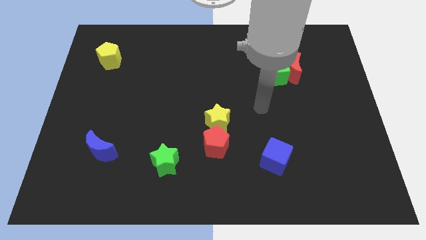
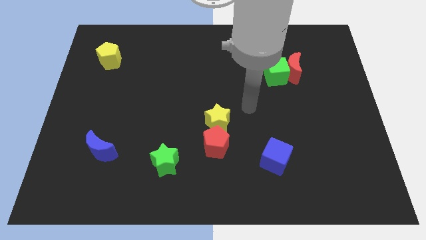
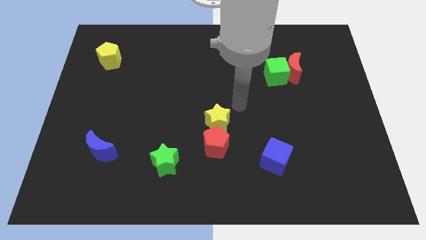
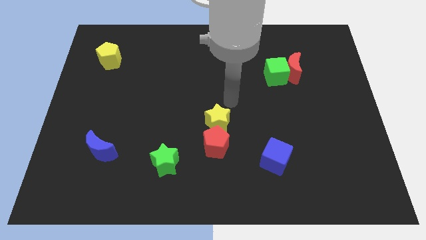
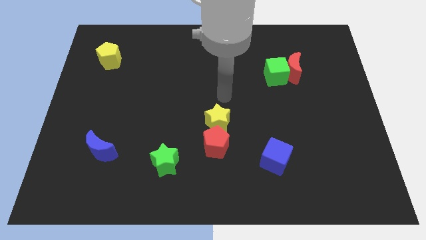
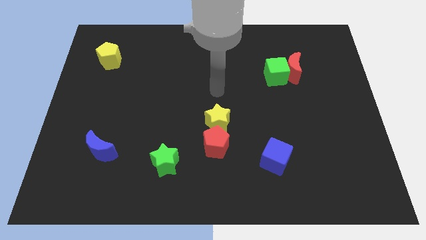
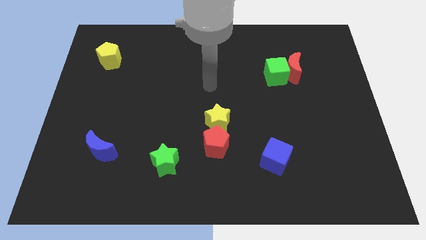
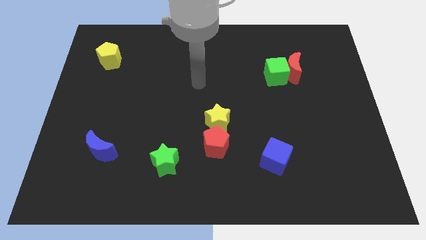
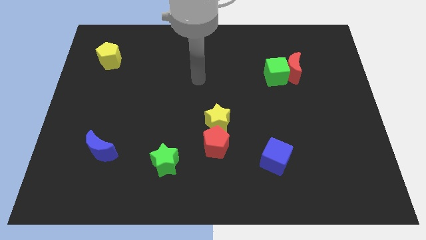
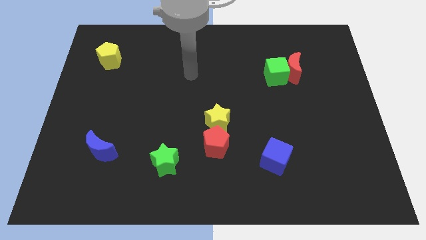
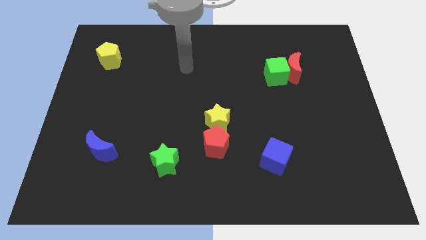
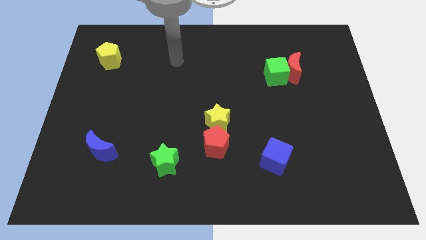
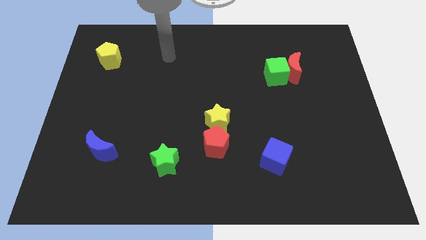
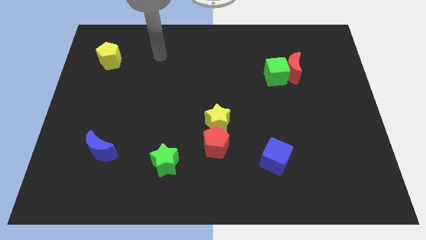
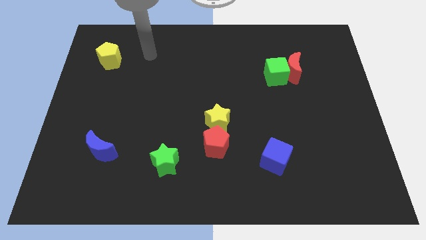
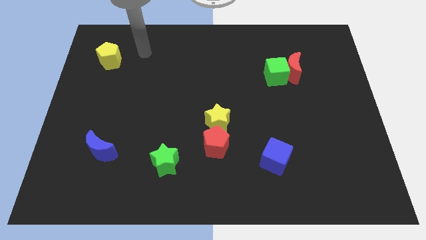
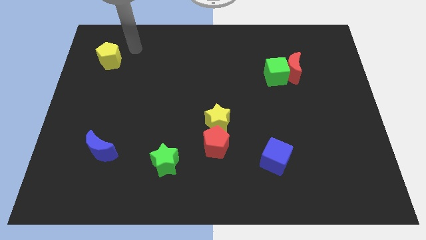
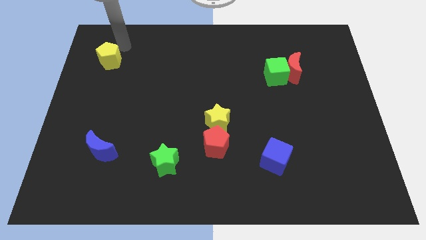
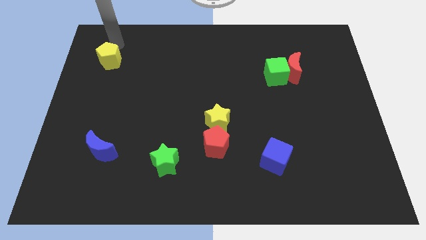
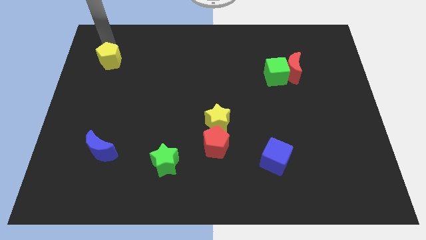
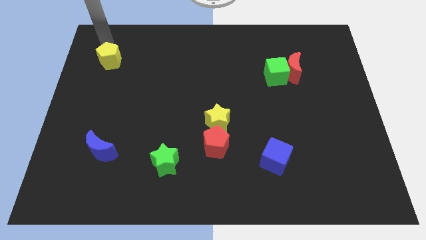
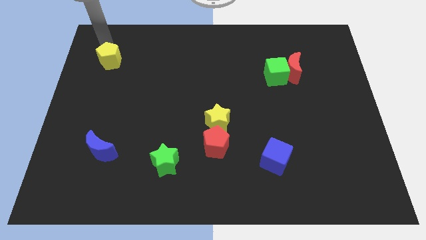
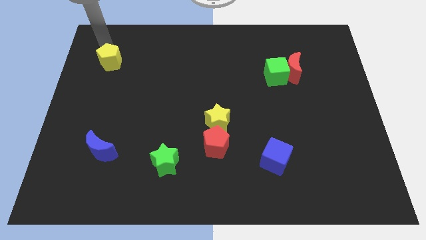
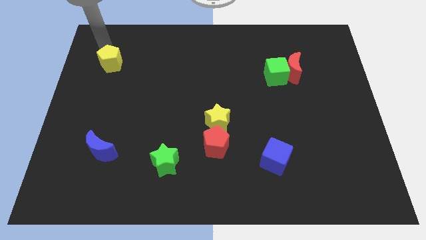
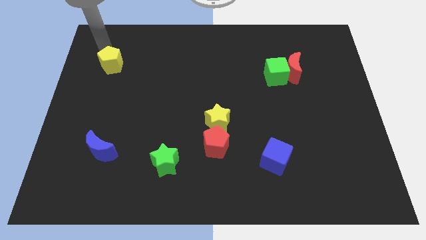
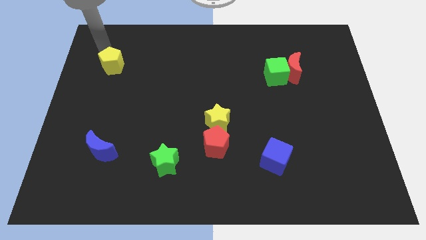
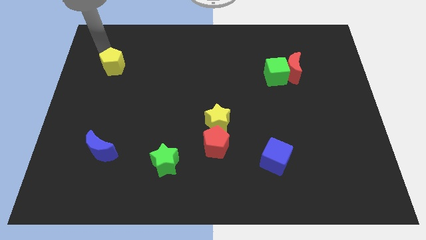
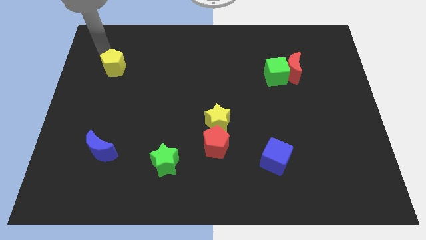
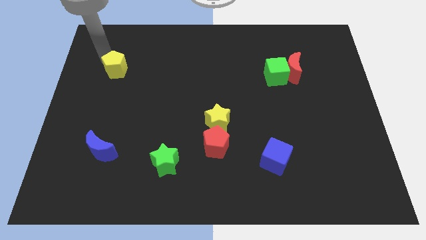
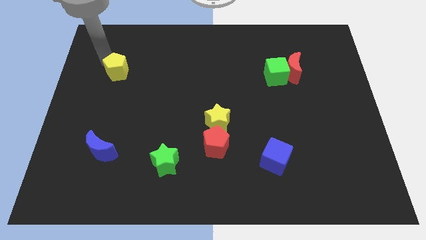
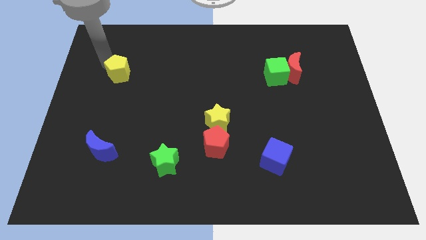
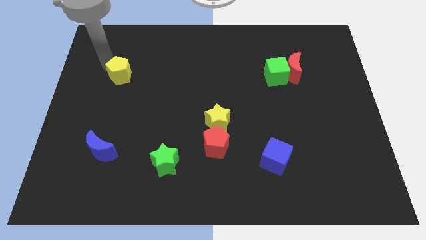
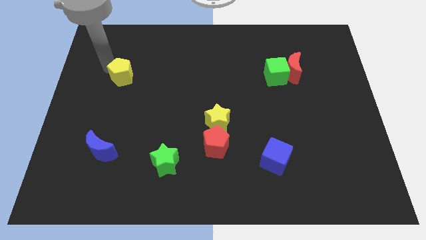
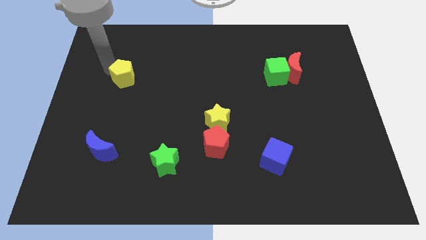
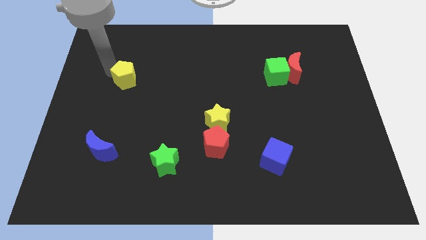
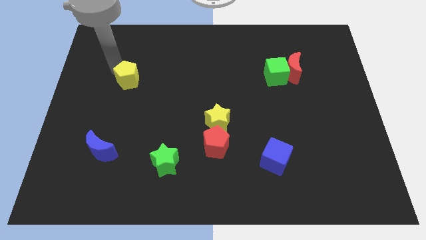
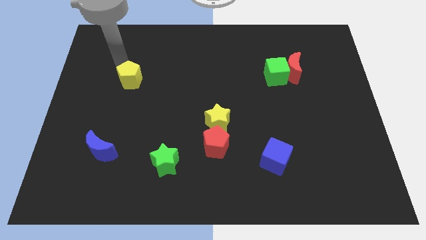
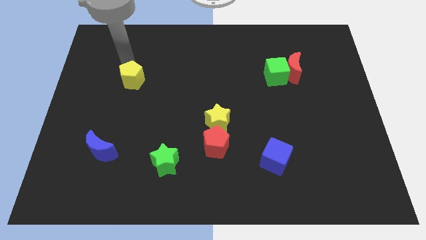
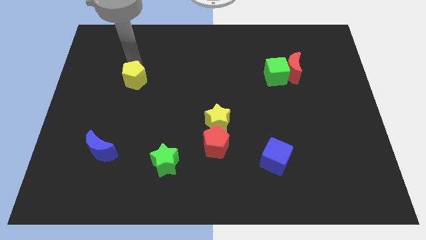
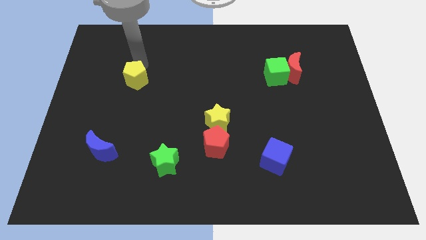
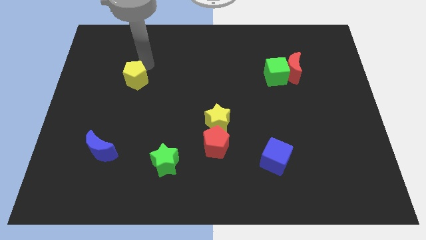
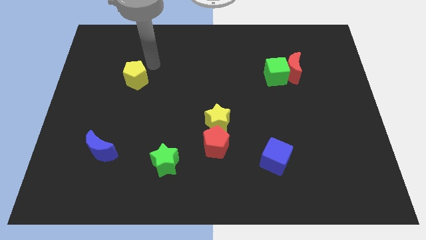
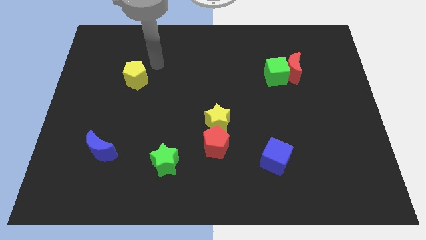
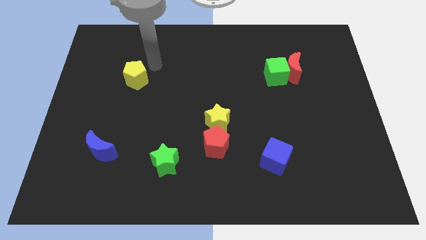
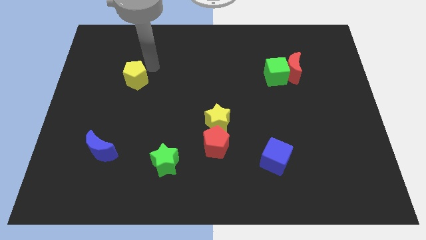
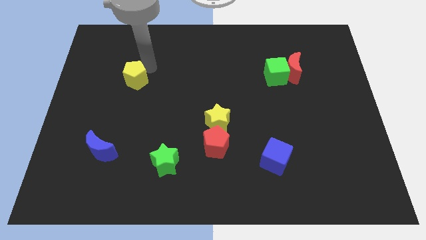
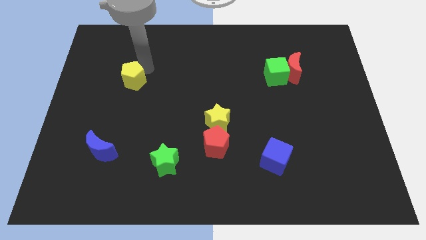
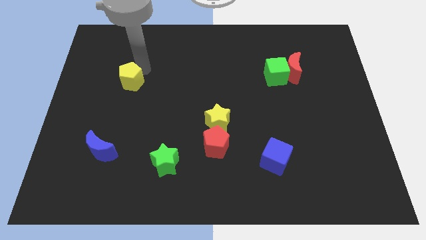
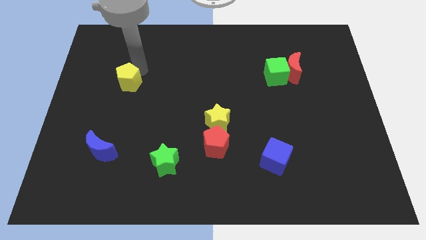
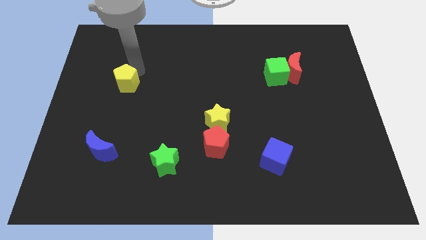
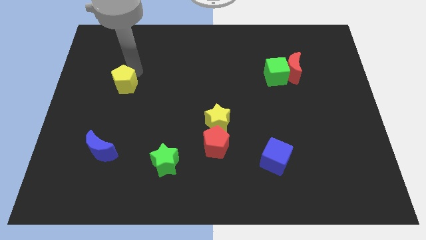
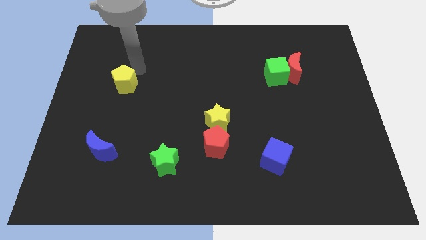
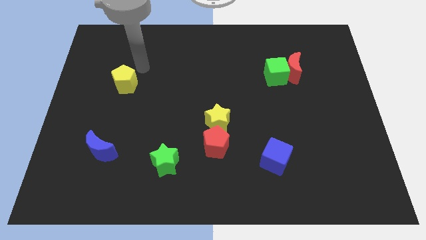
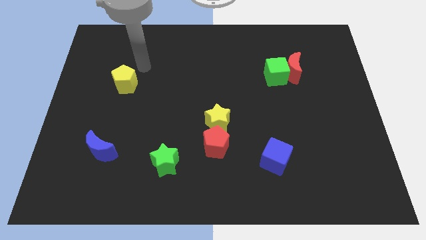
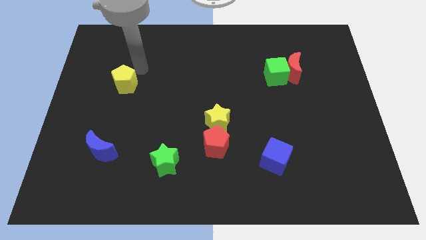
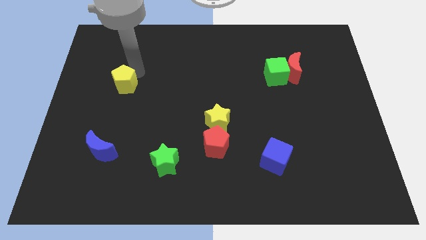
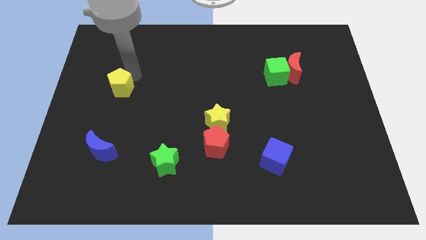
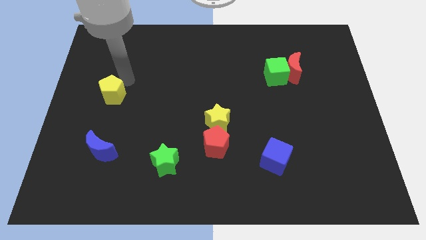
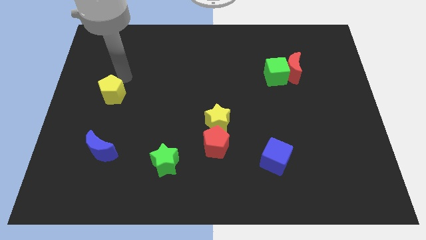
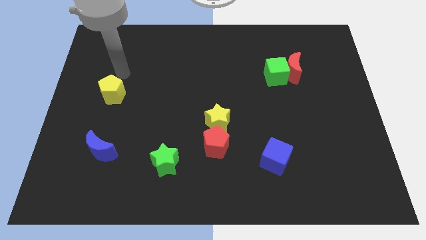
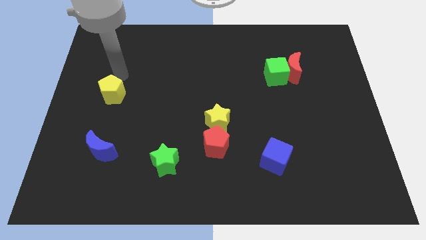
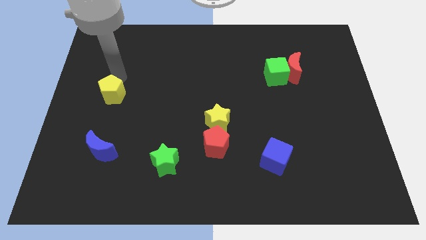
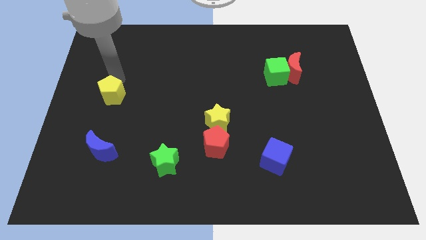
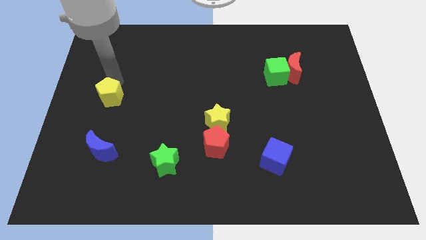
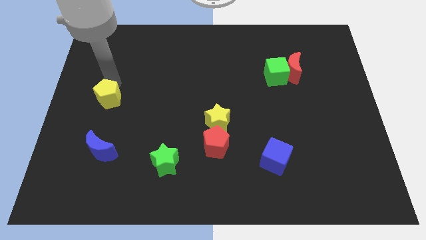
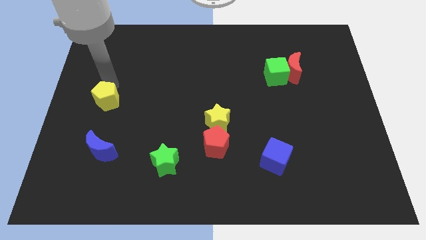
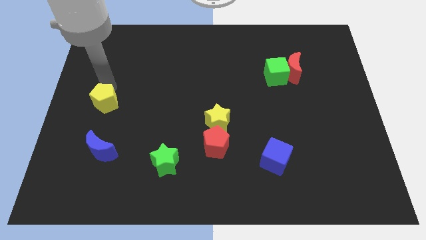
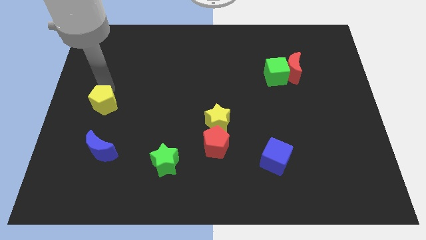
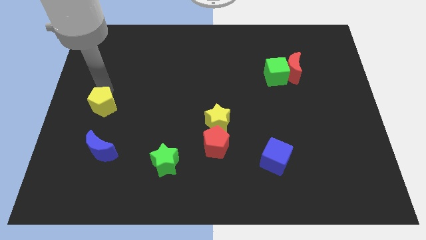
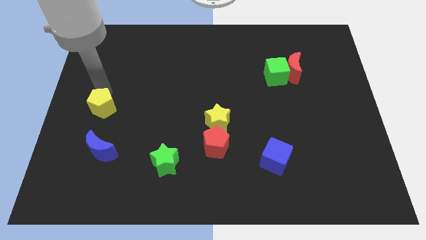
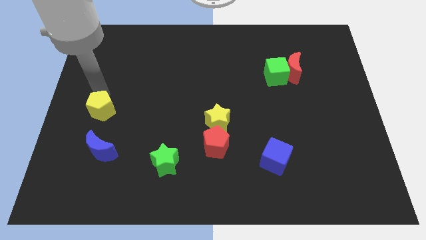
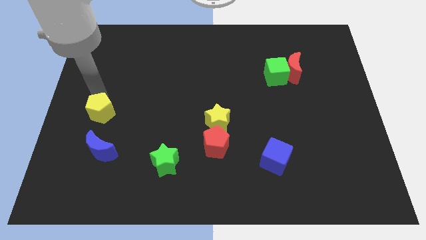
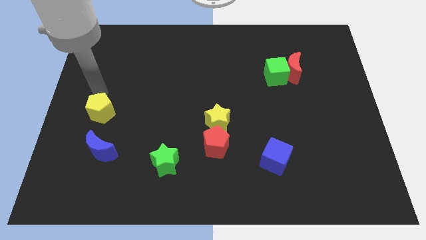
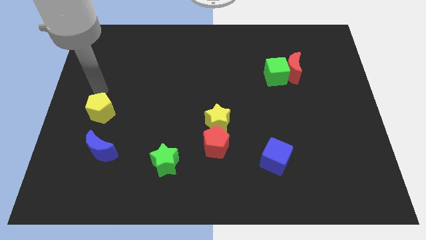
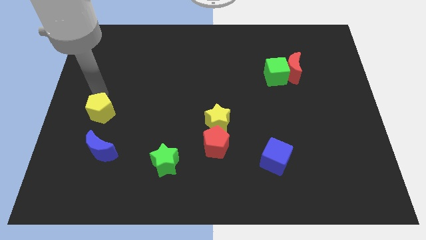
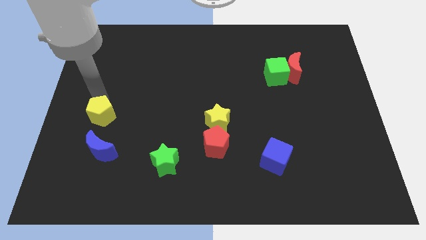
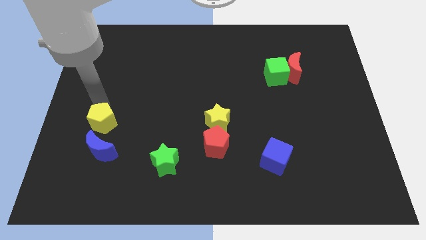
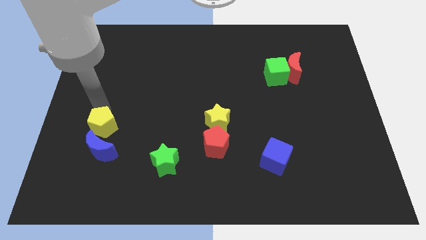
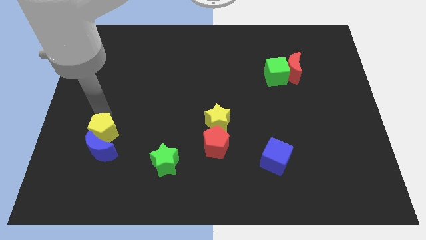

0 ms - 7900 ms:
put the yellow pentagon next to the blue moon

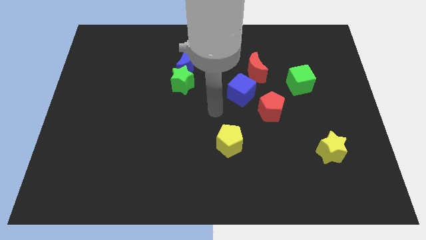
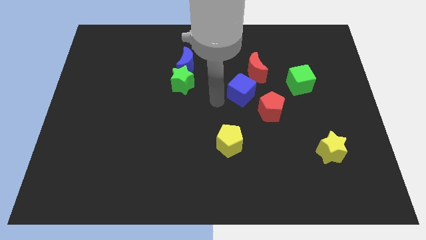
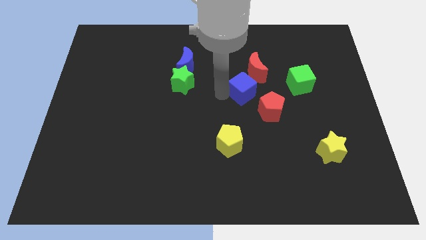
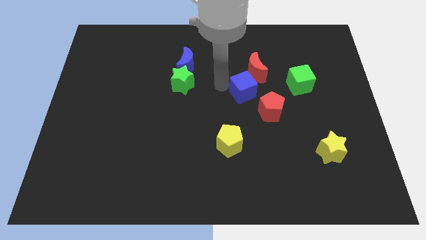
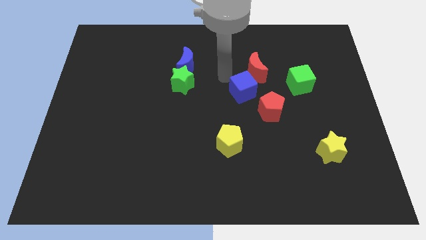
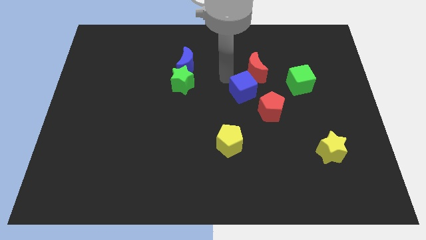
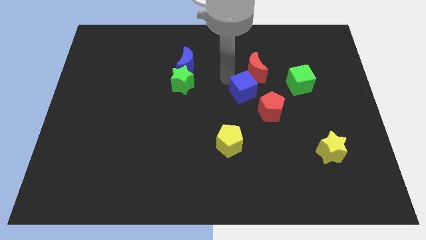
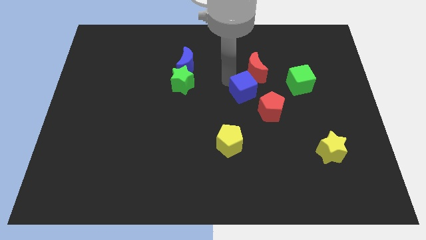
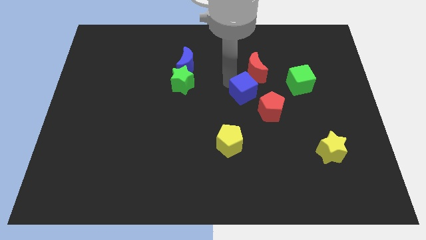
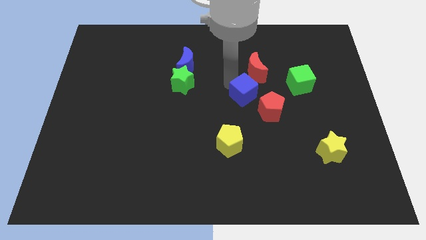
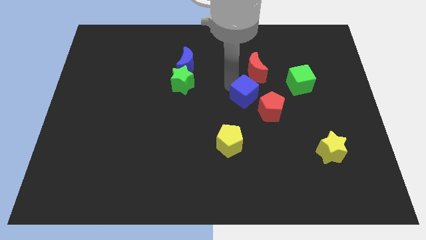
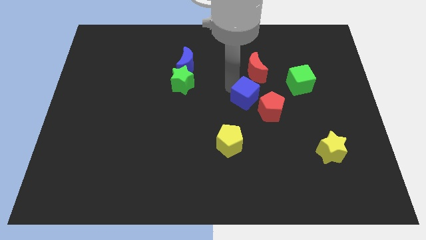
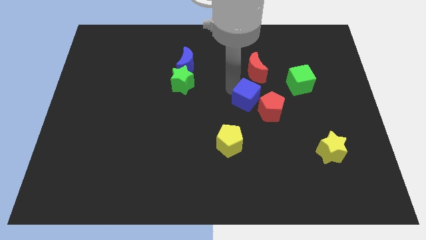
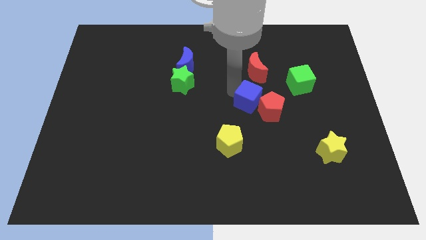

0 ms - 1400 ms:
push the blue cube next to the red pentagon
